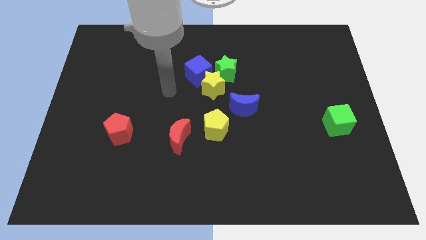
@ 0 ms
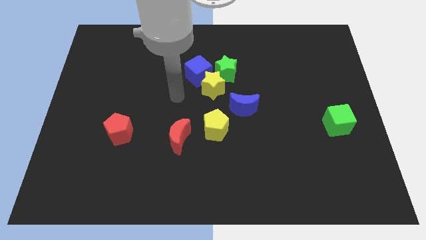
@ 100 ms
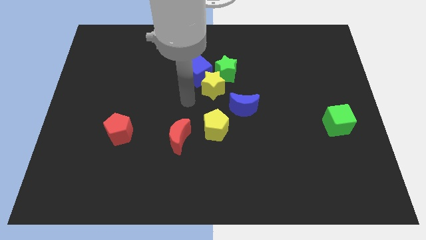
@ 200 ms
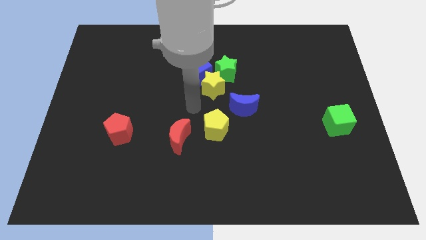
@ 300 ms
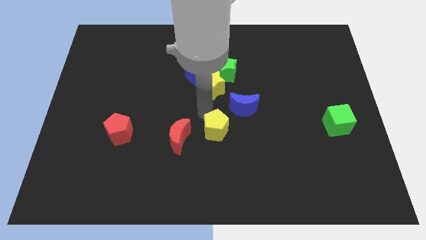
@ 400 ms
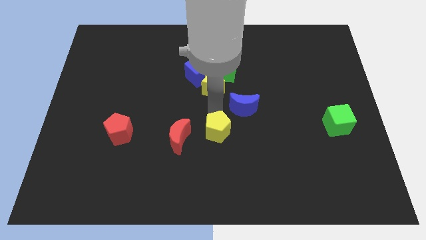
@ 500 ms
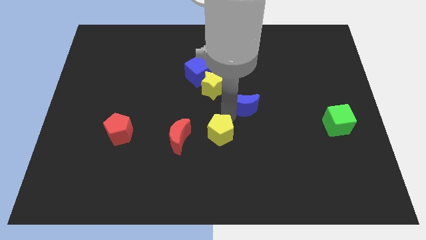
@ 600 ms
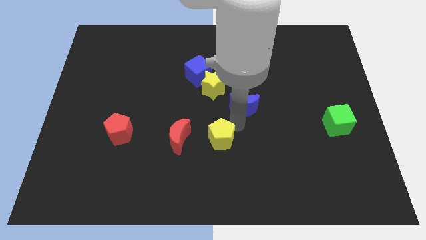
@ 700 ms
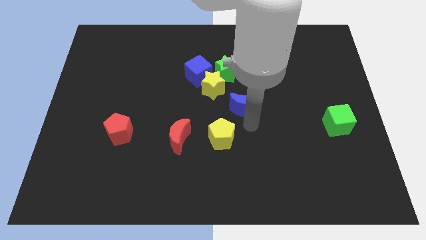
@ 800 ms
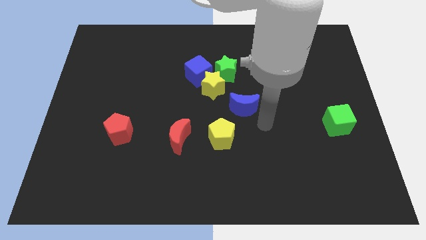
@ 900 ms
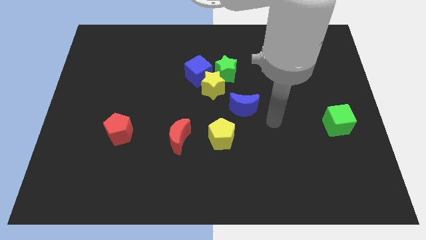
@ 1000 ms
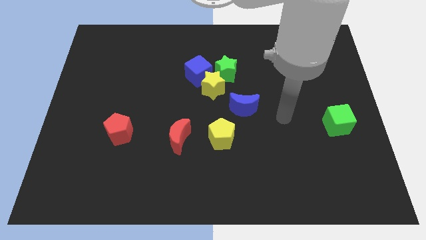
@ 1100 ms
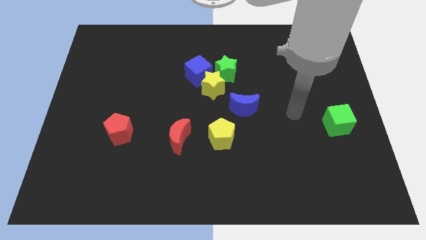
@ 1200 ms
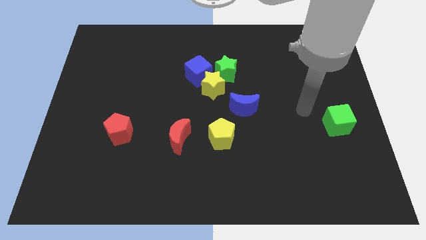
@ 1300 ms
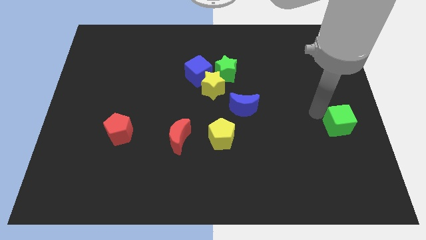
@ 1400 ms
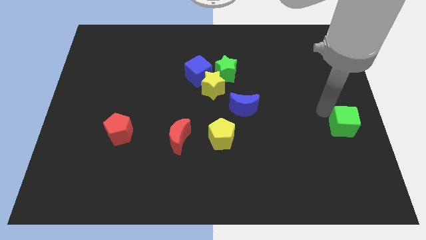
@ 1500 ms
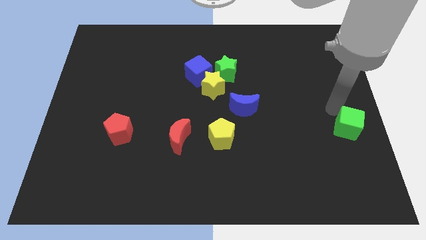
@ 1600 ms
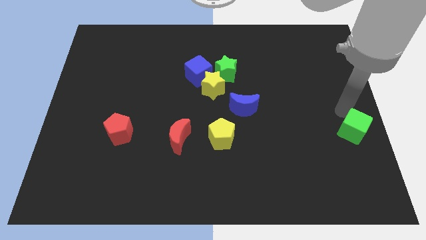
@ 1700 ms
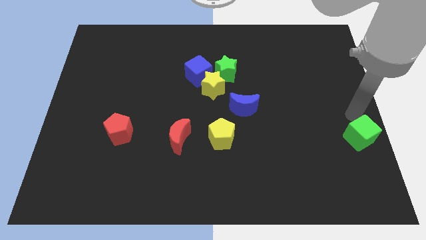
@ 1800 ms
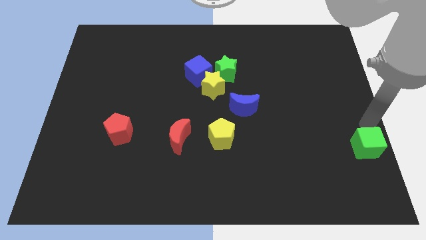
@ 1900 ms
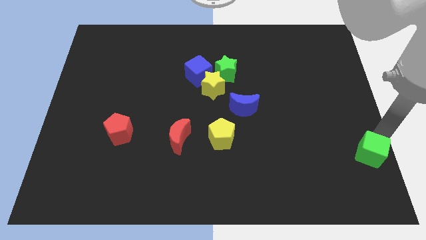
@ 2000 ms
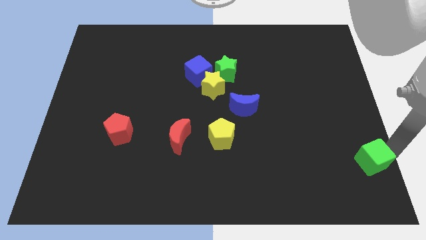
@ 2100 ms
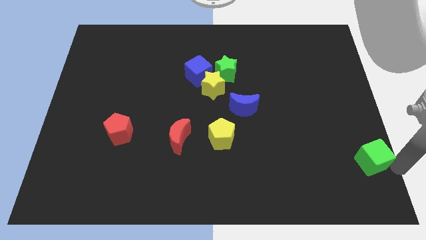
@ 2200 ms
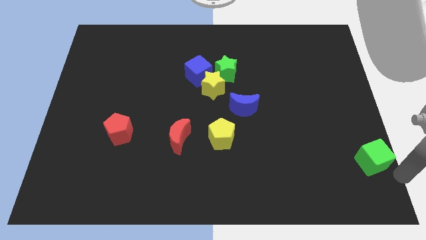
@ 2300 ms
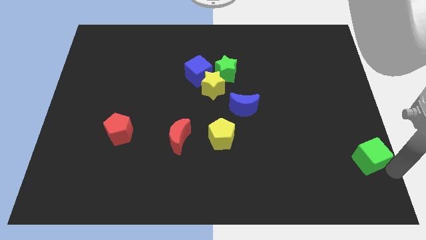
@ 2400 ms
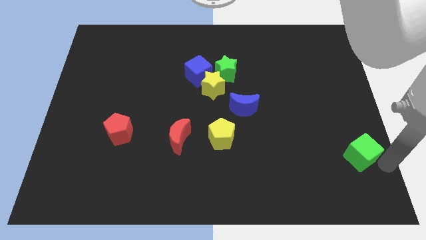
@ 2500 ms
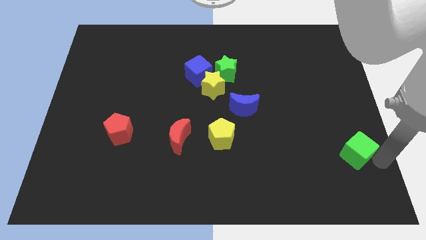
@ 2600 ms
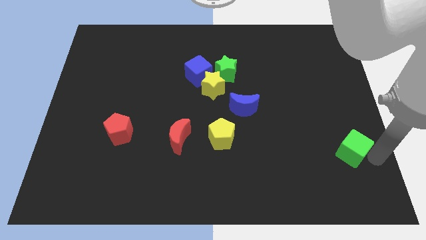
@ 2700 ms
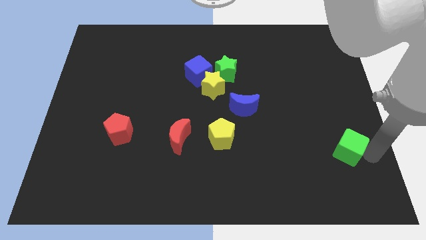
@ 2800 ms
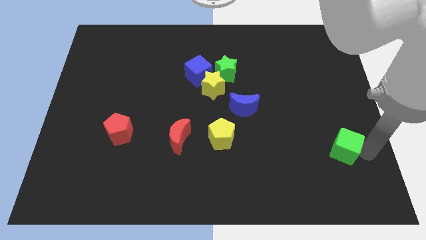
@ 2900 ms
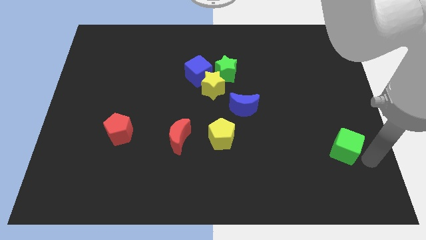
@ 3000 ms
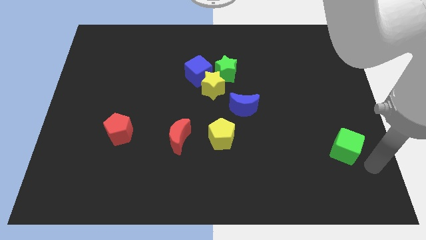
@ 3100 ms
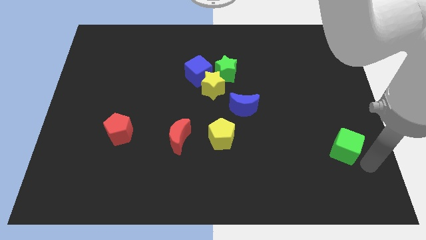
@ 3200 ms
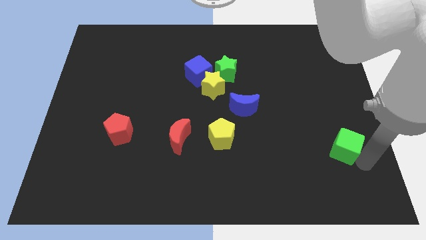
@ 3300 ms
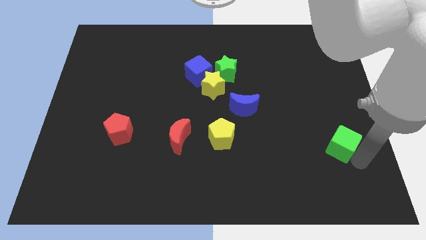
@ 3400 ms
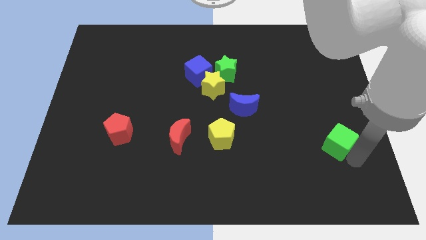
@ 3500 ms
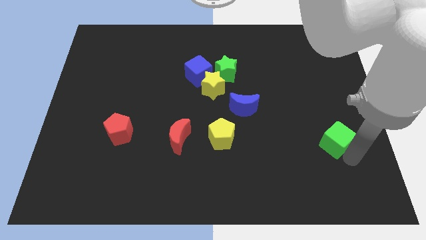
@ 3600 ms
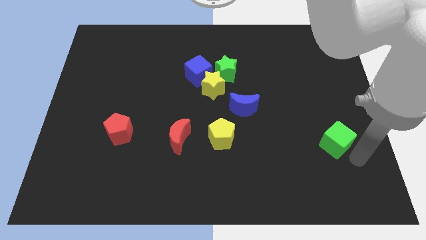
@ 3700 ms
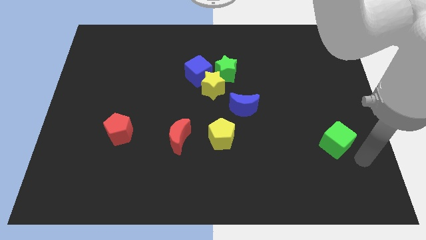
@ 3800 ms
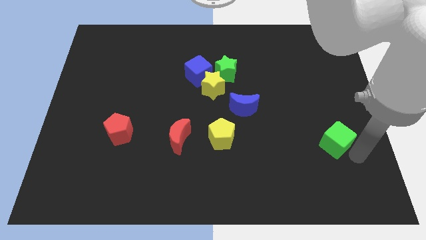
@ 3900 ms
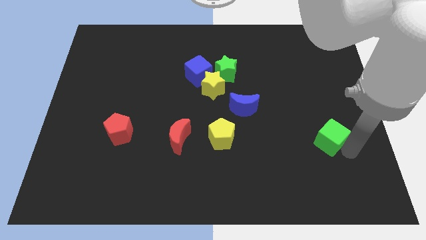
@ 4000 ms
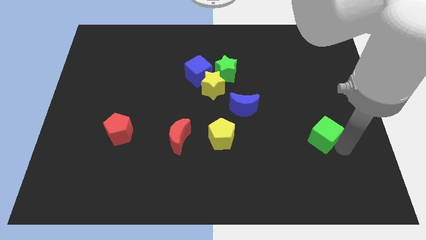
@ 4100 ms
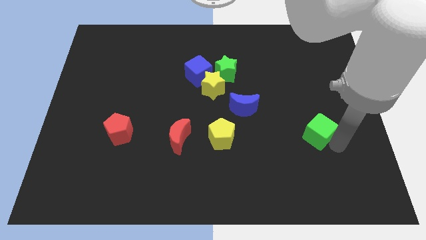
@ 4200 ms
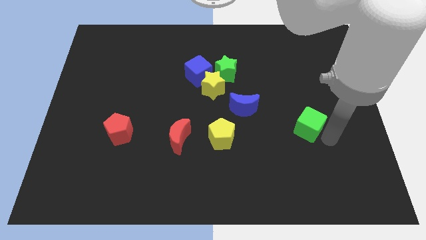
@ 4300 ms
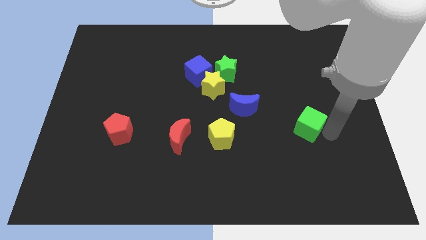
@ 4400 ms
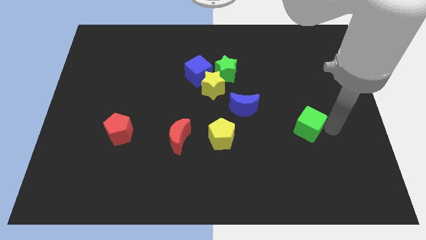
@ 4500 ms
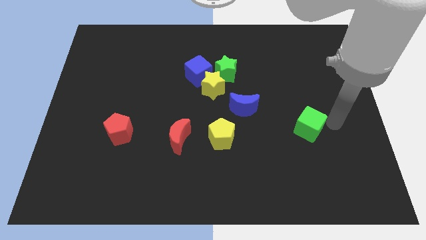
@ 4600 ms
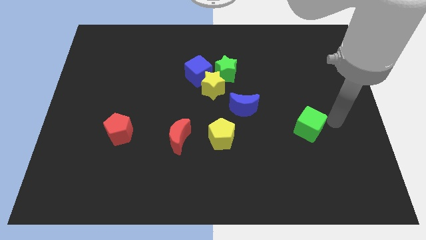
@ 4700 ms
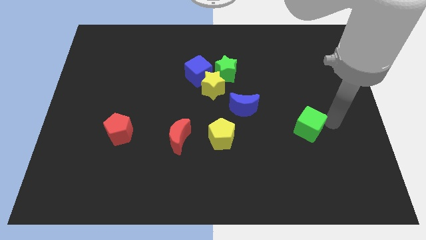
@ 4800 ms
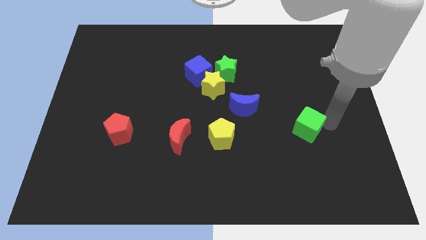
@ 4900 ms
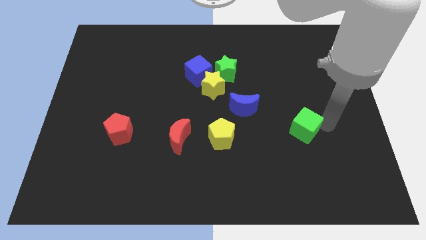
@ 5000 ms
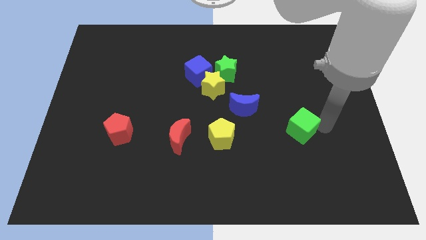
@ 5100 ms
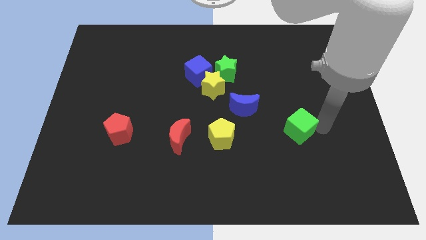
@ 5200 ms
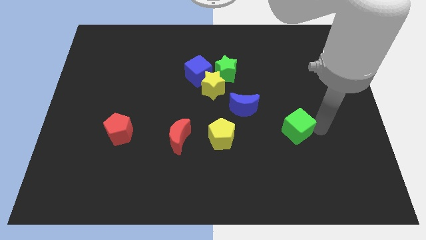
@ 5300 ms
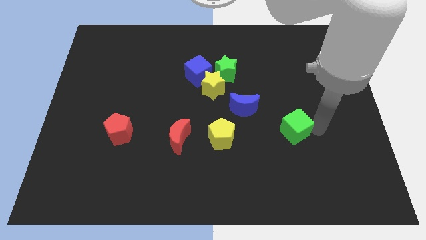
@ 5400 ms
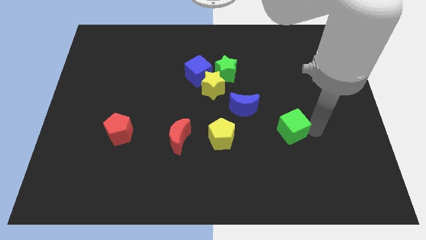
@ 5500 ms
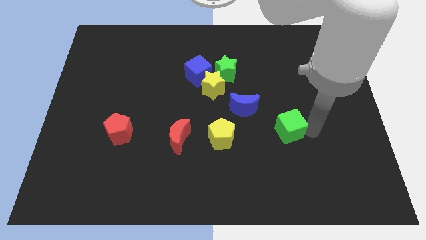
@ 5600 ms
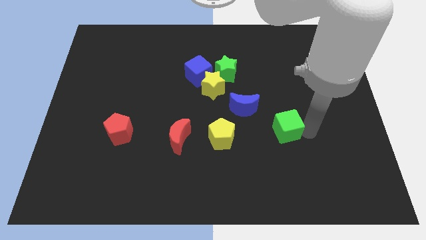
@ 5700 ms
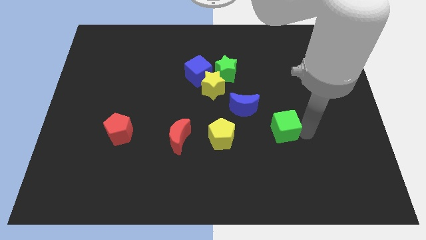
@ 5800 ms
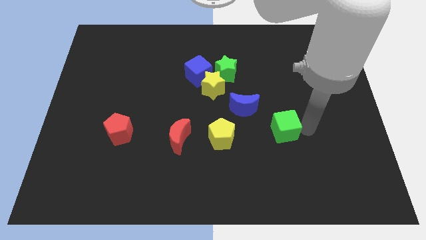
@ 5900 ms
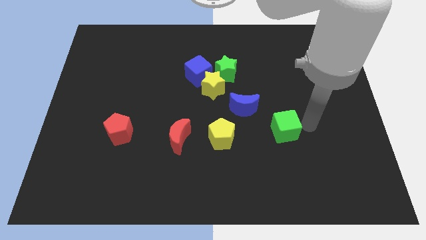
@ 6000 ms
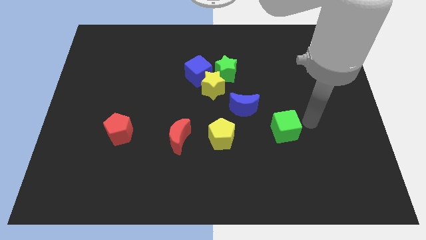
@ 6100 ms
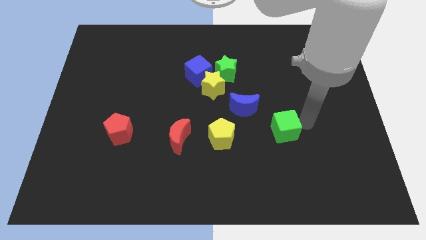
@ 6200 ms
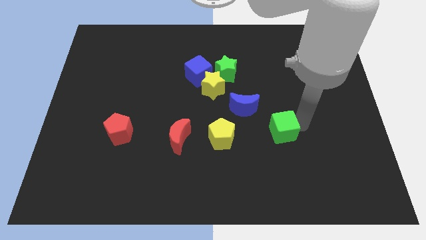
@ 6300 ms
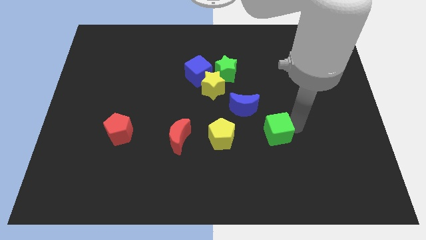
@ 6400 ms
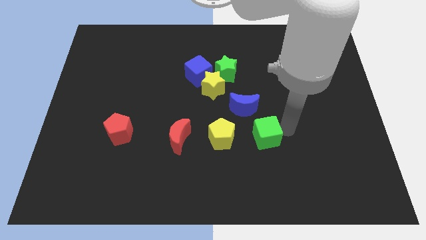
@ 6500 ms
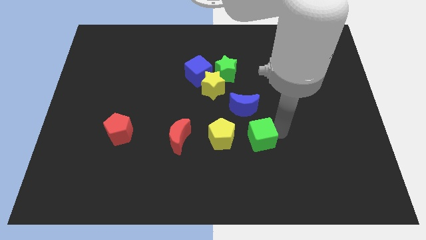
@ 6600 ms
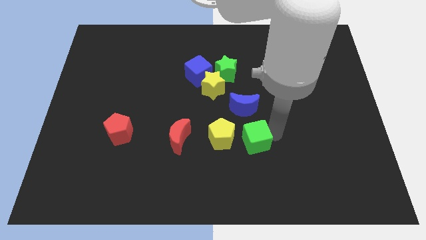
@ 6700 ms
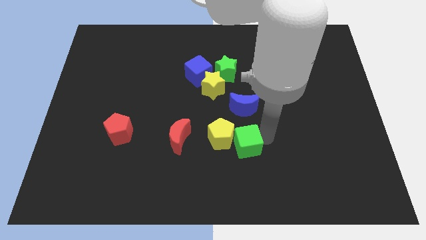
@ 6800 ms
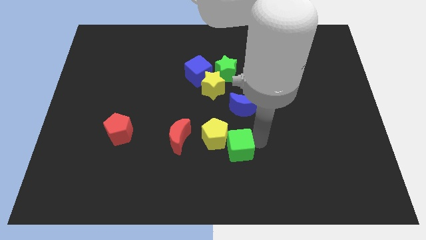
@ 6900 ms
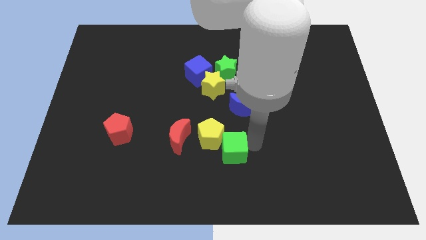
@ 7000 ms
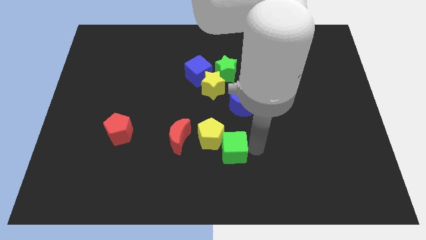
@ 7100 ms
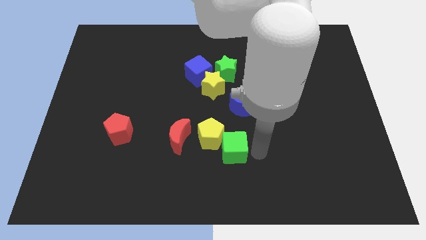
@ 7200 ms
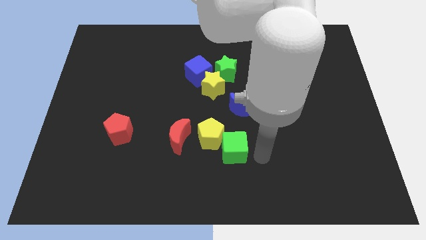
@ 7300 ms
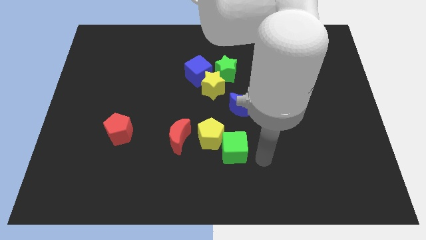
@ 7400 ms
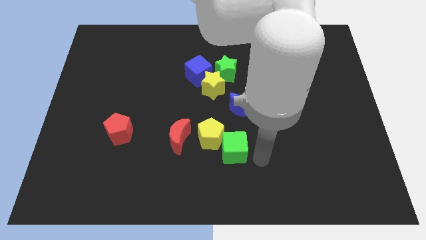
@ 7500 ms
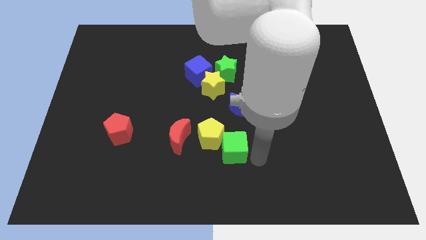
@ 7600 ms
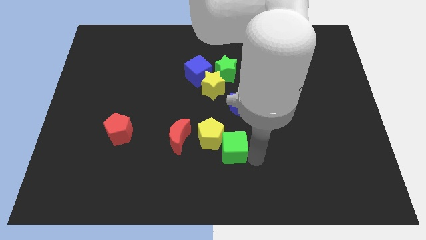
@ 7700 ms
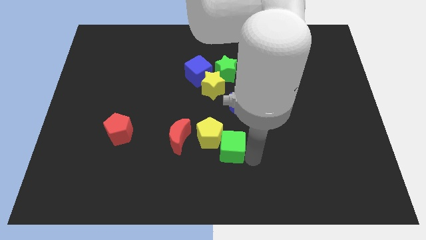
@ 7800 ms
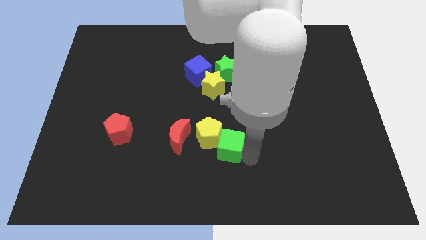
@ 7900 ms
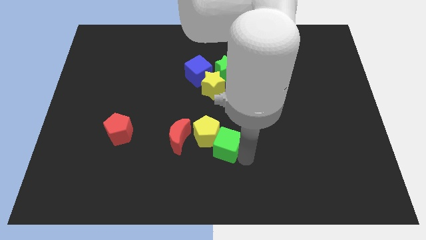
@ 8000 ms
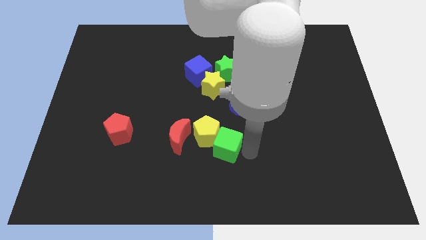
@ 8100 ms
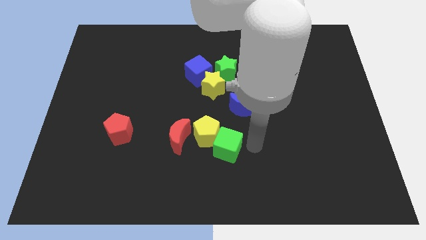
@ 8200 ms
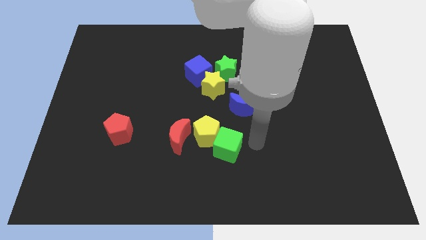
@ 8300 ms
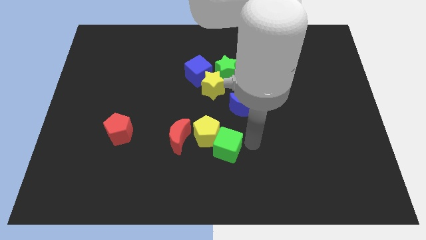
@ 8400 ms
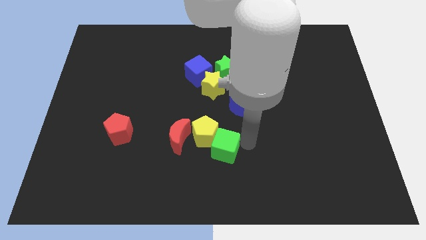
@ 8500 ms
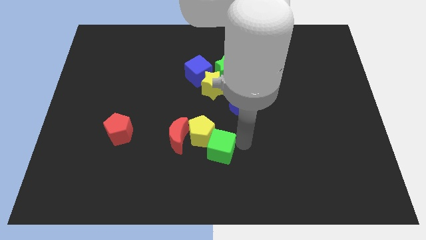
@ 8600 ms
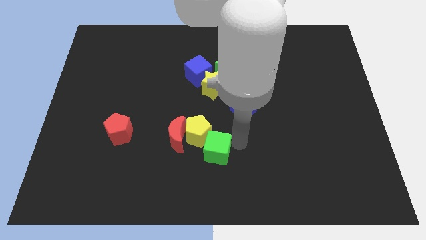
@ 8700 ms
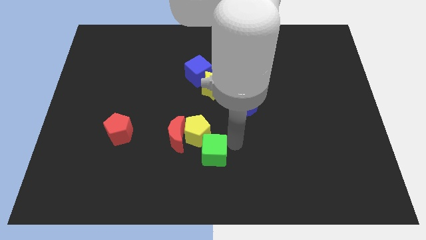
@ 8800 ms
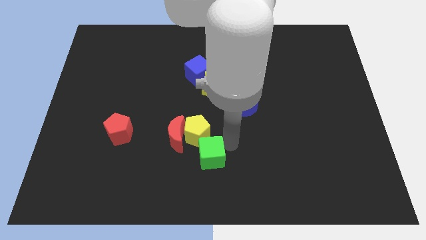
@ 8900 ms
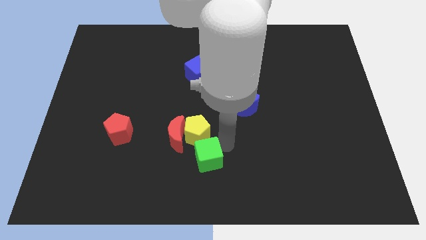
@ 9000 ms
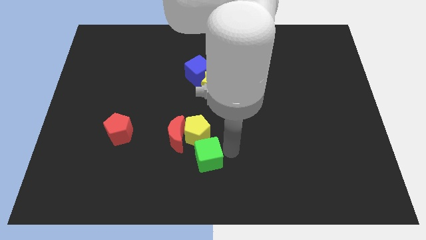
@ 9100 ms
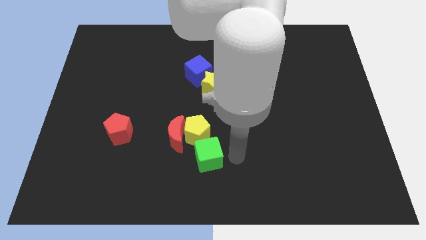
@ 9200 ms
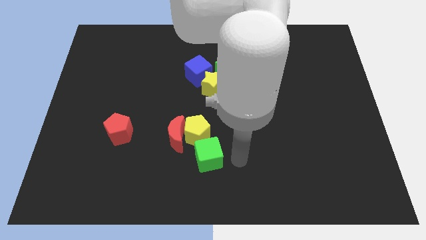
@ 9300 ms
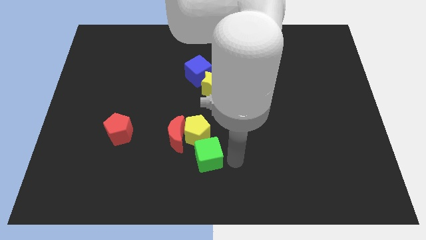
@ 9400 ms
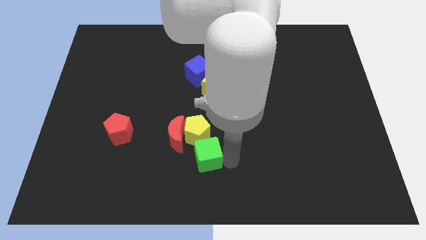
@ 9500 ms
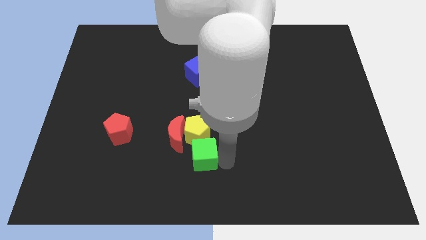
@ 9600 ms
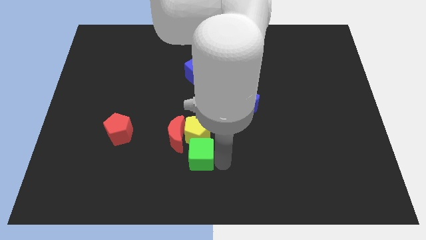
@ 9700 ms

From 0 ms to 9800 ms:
slide the green cube diagonally down and to the left of the yellow pentagon
